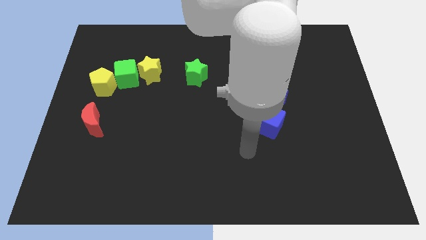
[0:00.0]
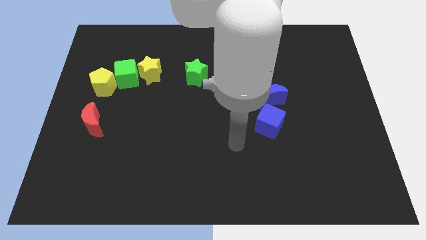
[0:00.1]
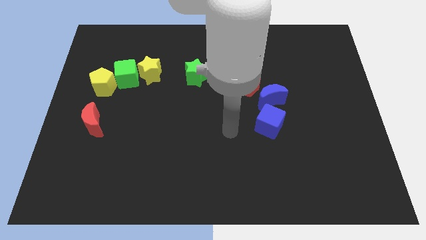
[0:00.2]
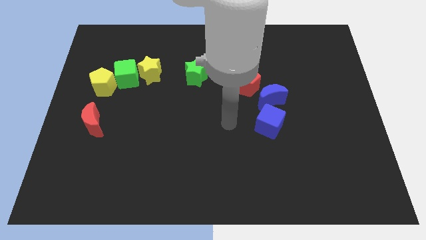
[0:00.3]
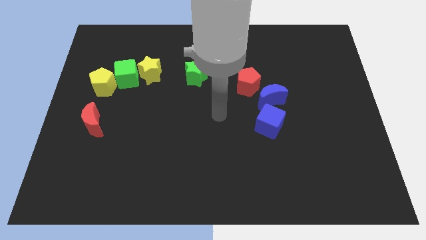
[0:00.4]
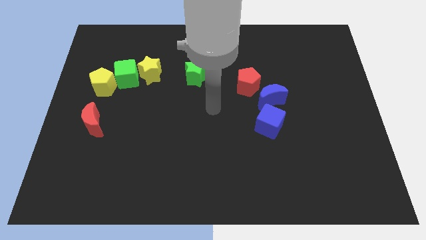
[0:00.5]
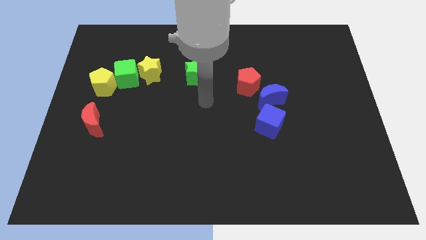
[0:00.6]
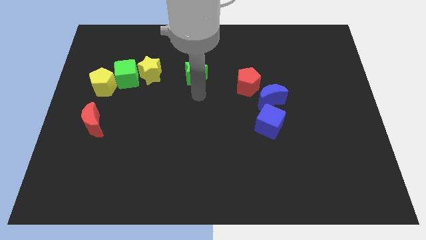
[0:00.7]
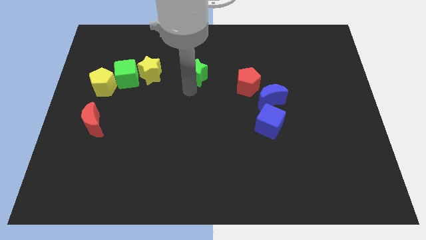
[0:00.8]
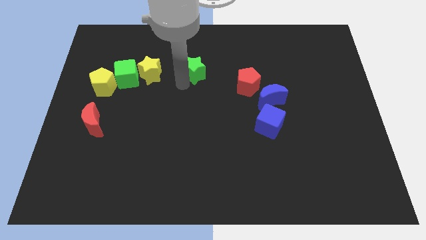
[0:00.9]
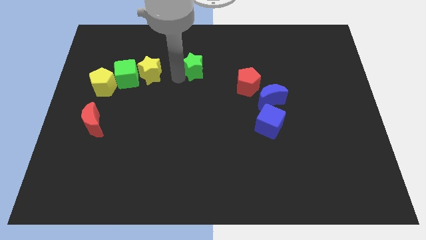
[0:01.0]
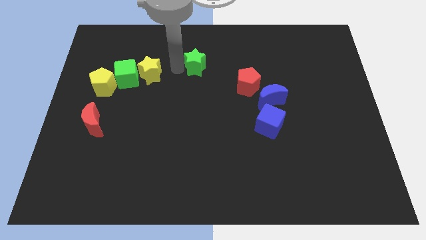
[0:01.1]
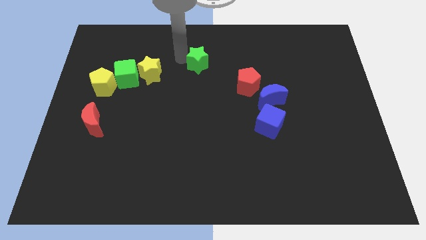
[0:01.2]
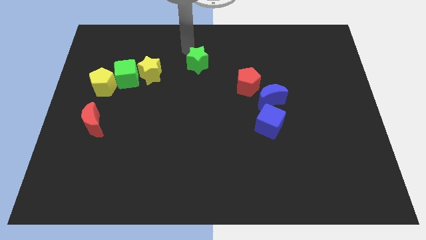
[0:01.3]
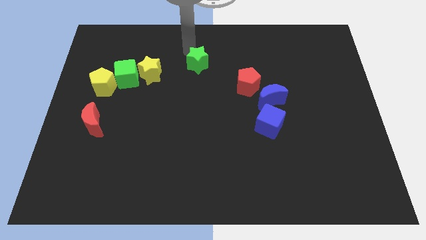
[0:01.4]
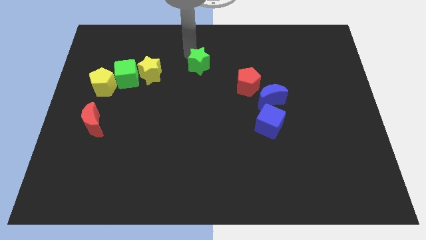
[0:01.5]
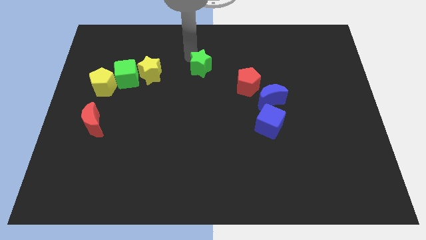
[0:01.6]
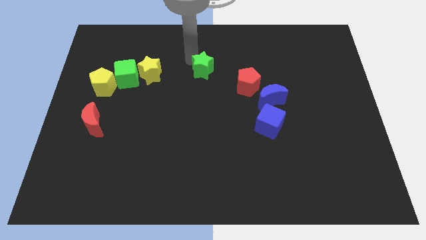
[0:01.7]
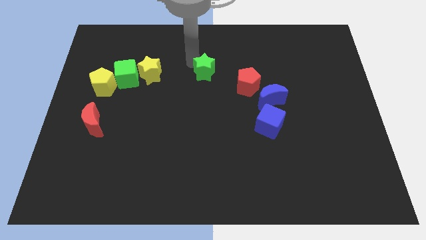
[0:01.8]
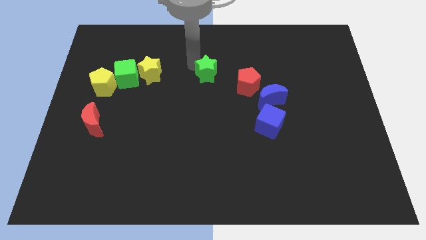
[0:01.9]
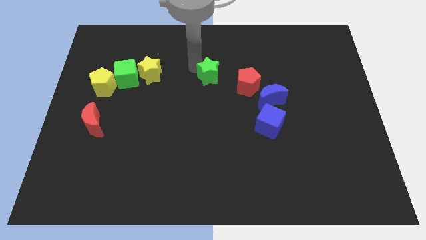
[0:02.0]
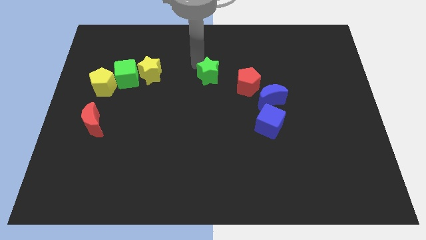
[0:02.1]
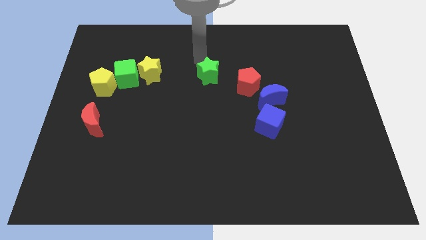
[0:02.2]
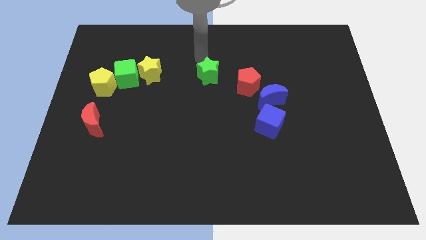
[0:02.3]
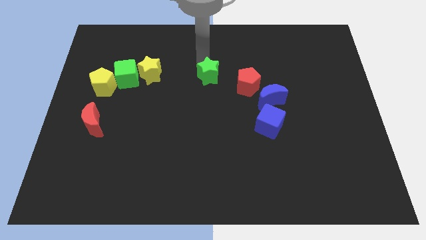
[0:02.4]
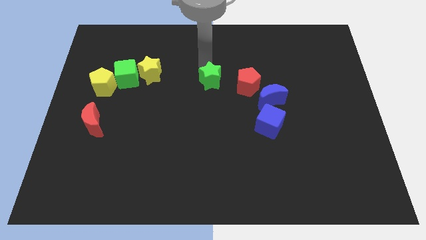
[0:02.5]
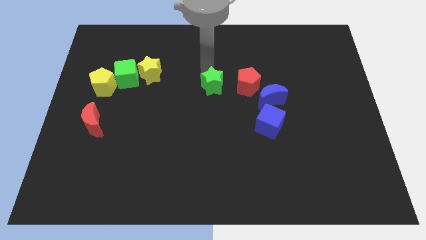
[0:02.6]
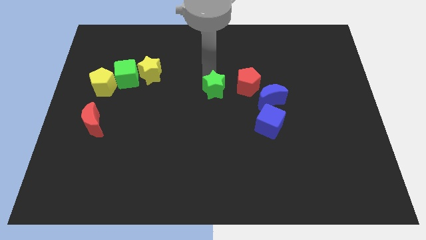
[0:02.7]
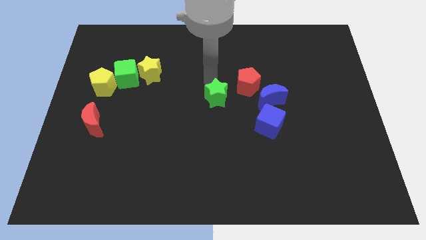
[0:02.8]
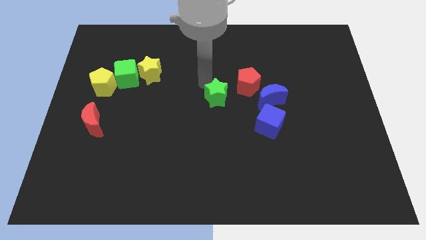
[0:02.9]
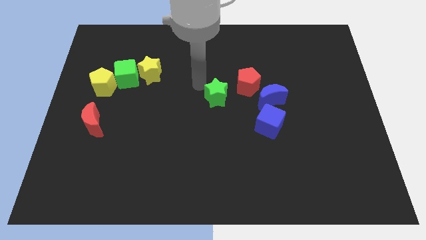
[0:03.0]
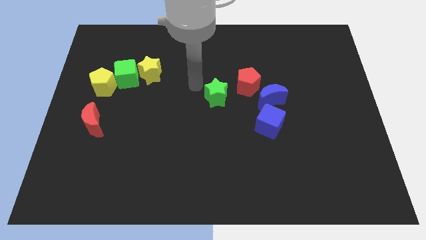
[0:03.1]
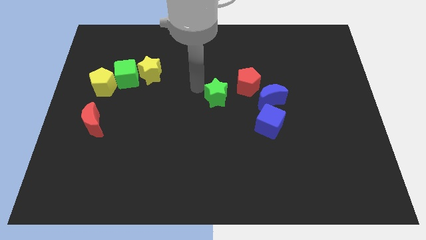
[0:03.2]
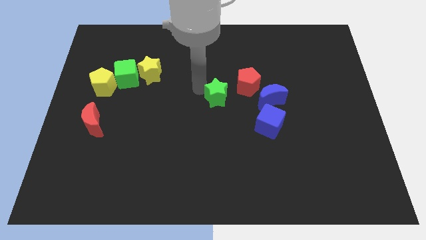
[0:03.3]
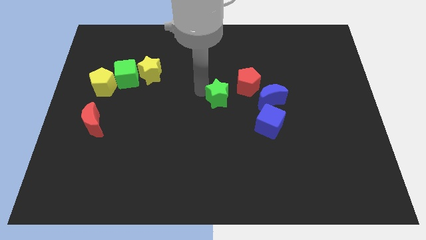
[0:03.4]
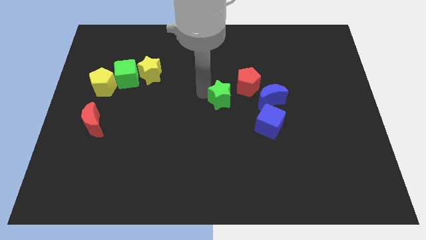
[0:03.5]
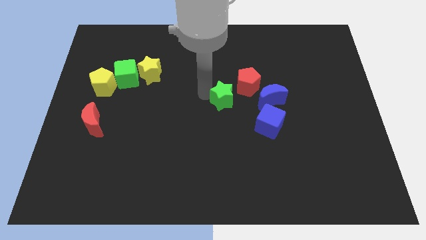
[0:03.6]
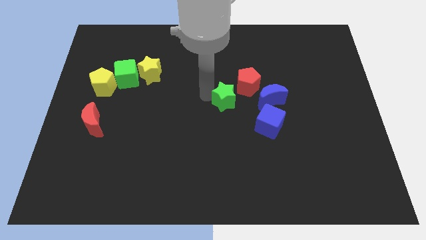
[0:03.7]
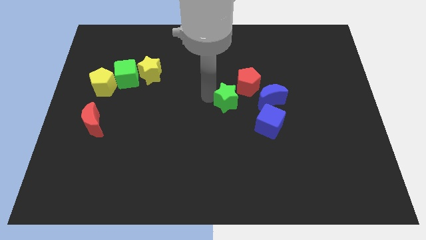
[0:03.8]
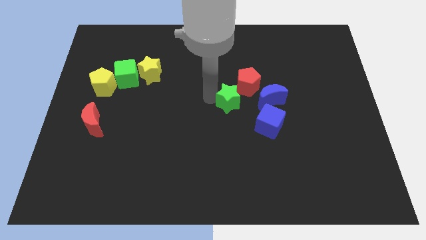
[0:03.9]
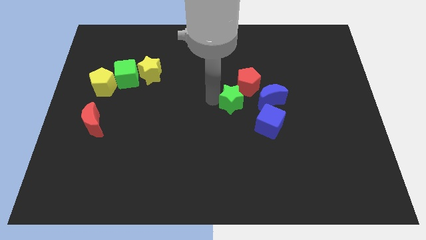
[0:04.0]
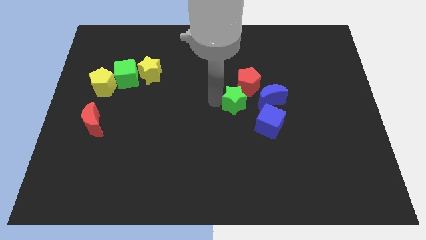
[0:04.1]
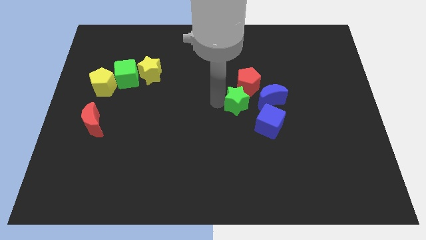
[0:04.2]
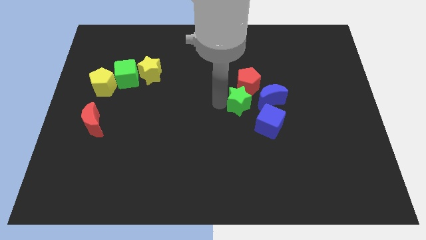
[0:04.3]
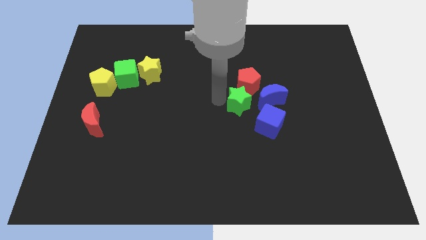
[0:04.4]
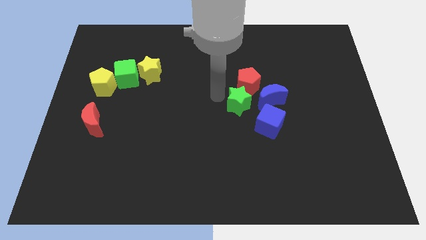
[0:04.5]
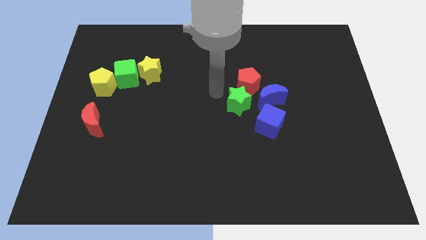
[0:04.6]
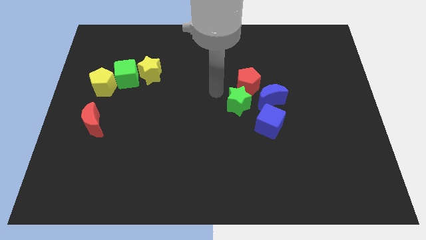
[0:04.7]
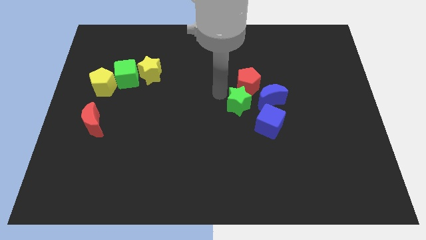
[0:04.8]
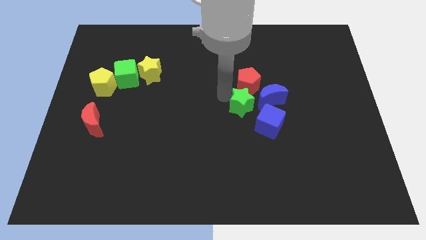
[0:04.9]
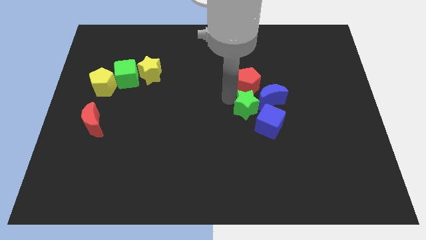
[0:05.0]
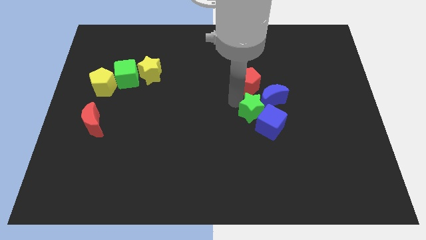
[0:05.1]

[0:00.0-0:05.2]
push the green star close to the blue cube

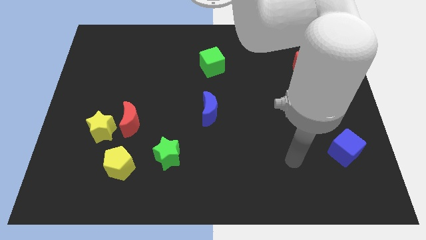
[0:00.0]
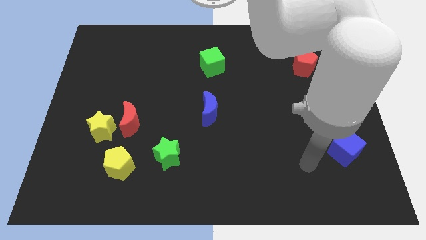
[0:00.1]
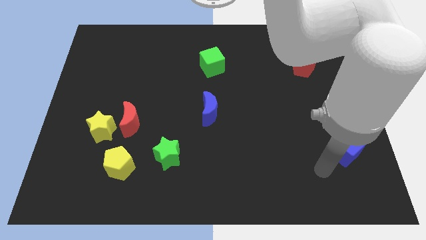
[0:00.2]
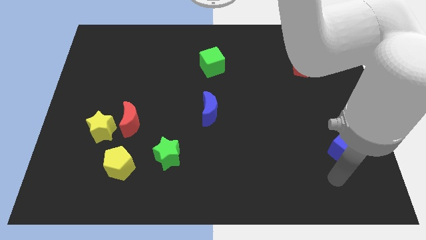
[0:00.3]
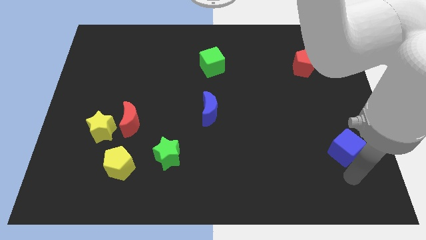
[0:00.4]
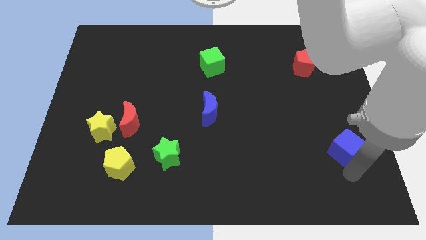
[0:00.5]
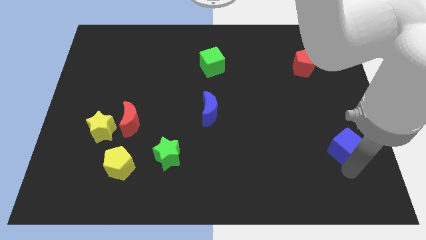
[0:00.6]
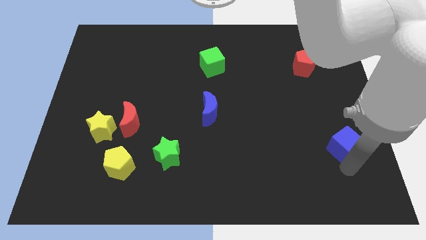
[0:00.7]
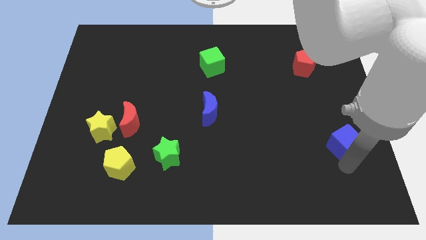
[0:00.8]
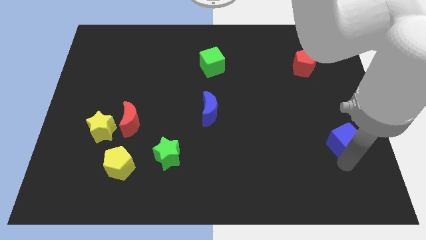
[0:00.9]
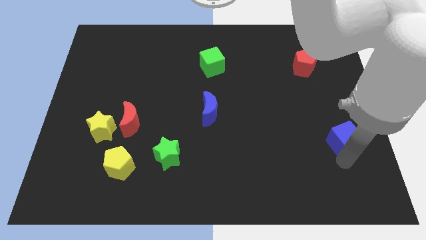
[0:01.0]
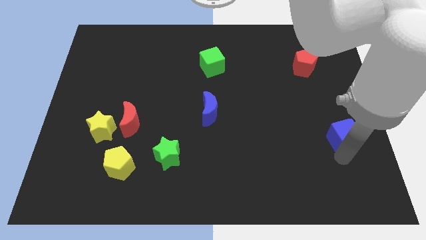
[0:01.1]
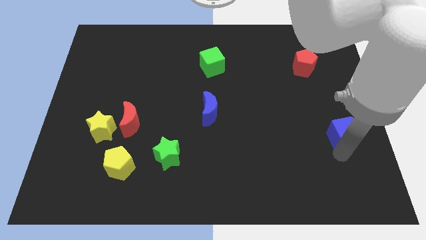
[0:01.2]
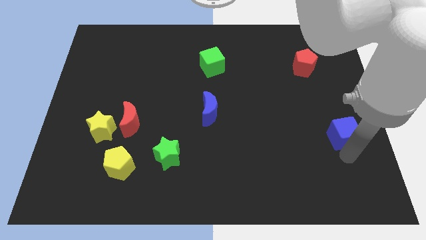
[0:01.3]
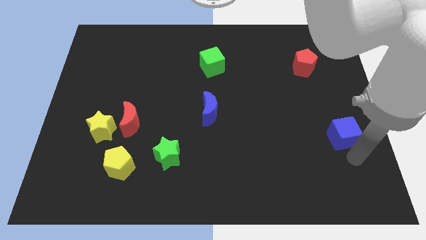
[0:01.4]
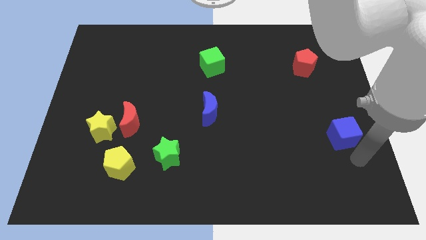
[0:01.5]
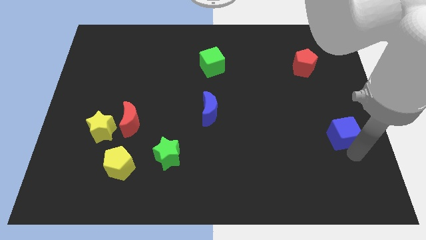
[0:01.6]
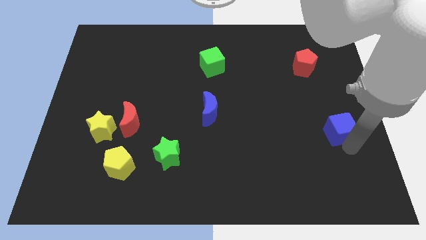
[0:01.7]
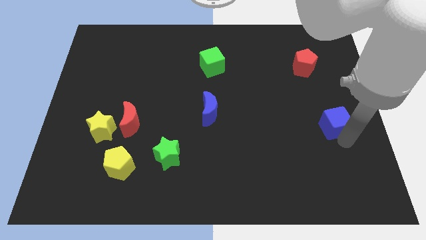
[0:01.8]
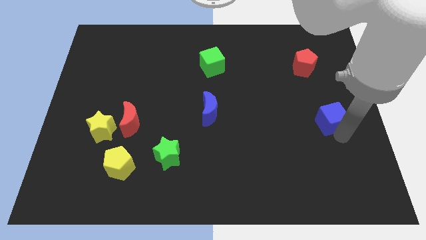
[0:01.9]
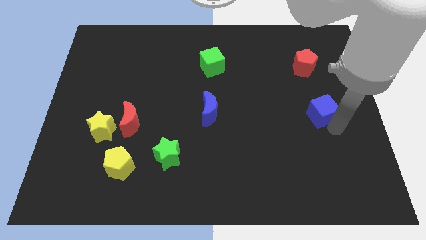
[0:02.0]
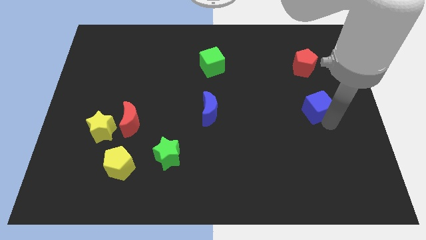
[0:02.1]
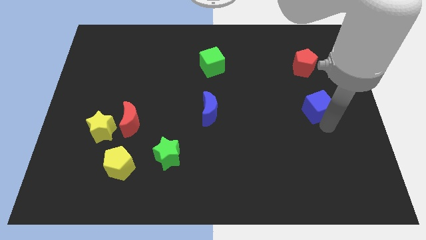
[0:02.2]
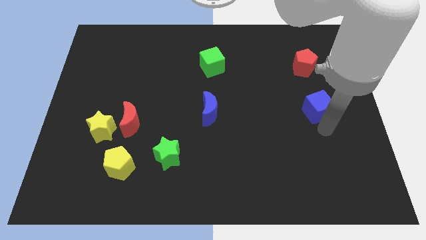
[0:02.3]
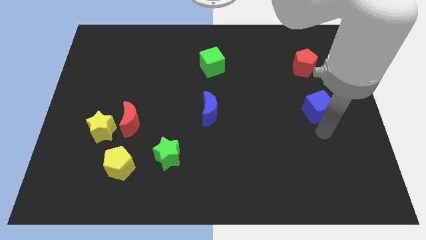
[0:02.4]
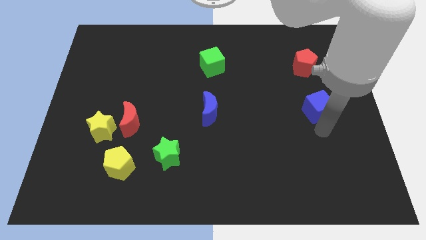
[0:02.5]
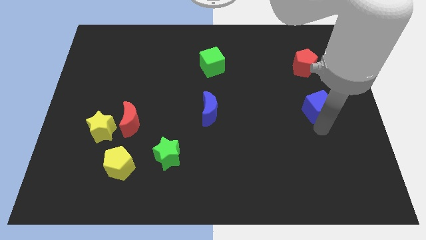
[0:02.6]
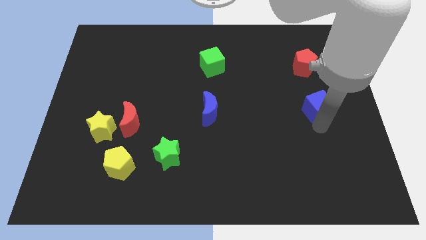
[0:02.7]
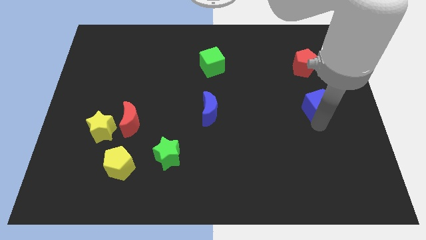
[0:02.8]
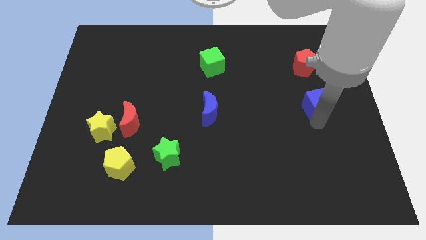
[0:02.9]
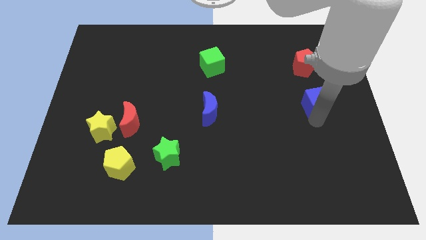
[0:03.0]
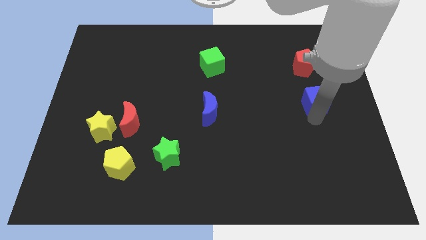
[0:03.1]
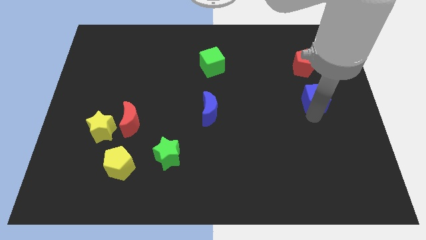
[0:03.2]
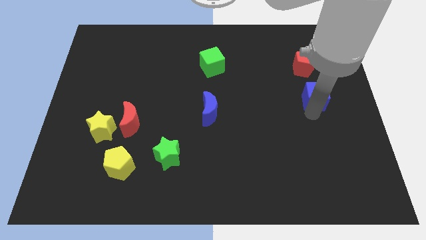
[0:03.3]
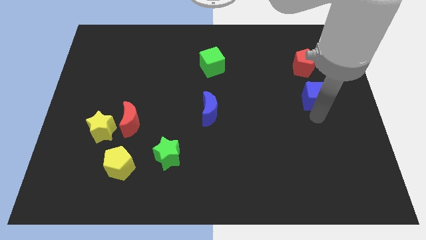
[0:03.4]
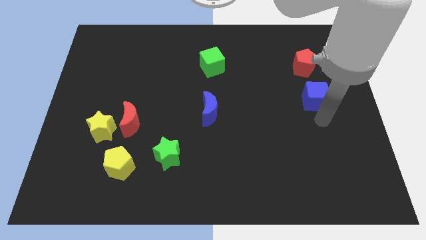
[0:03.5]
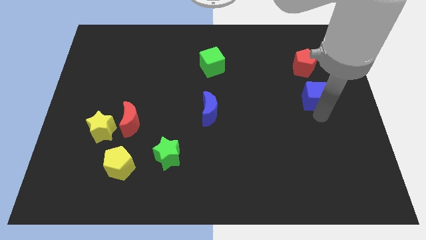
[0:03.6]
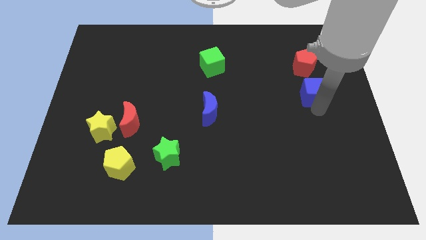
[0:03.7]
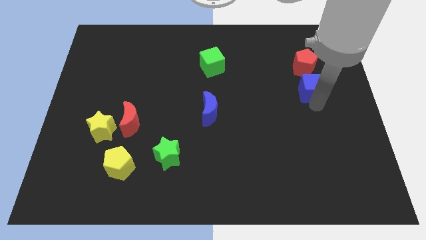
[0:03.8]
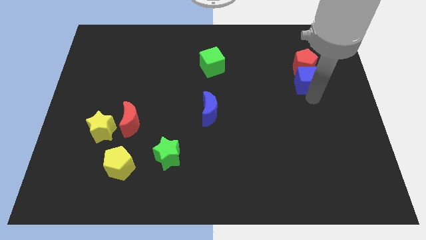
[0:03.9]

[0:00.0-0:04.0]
put the blue cube towards the red pentagon
